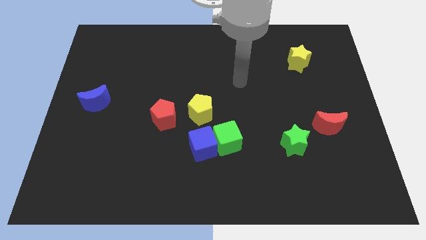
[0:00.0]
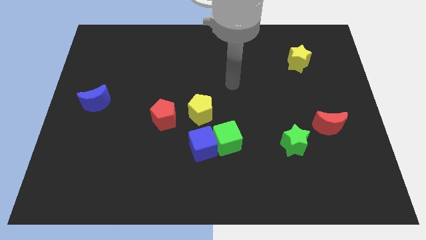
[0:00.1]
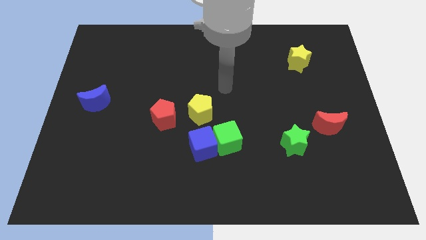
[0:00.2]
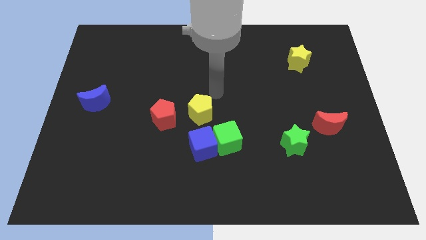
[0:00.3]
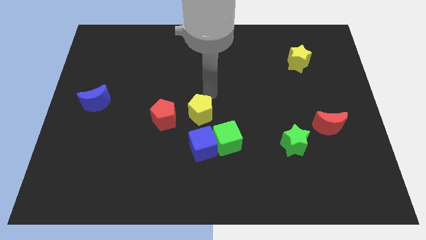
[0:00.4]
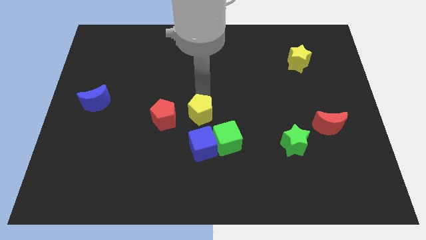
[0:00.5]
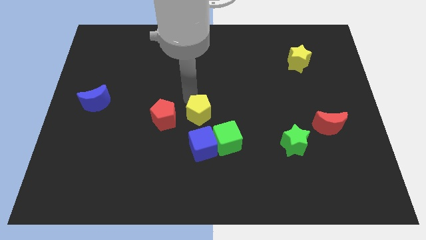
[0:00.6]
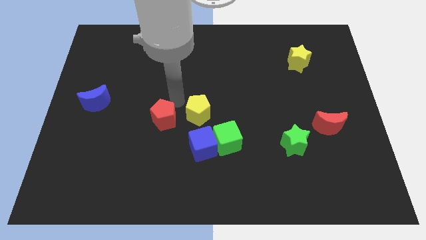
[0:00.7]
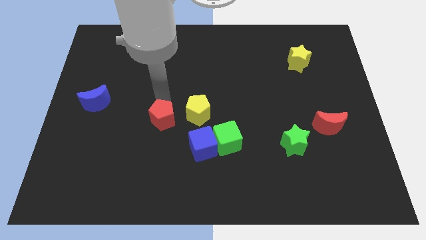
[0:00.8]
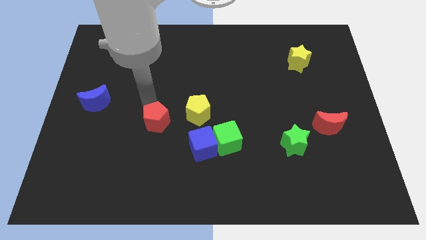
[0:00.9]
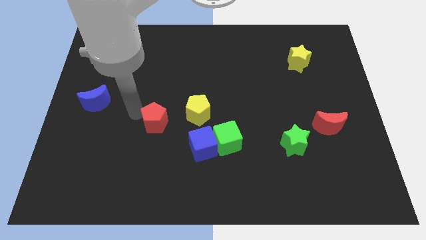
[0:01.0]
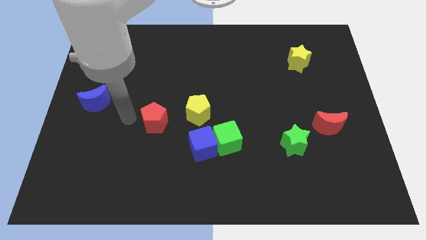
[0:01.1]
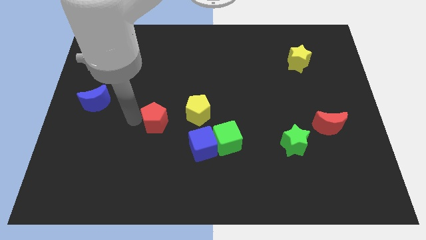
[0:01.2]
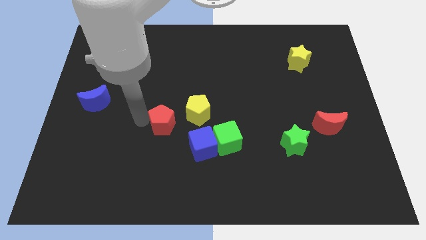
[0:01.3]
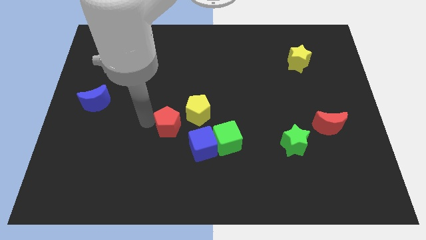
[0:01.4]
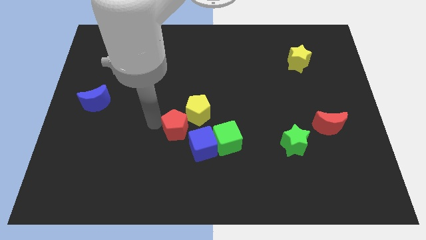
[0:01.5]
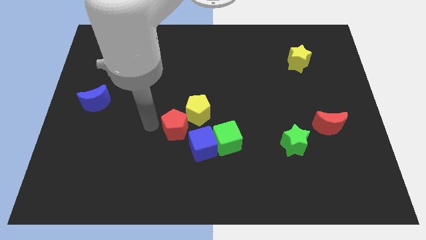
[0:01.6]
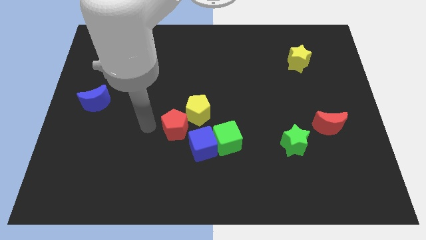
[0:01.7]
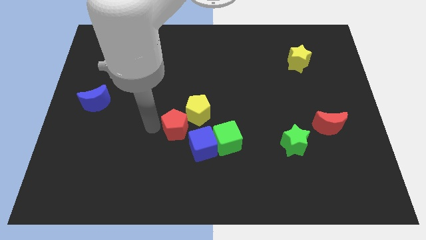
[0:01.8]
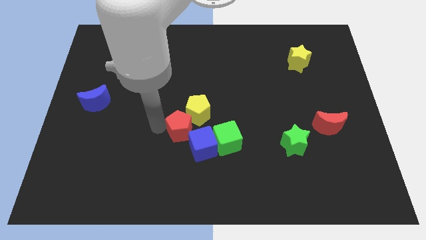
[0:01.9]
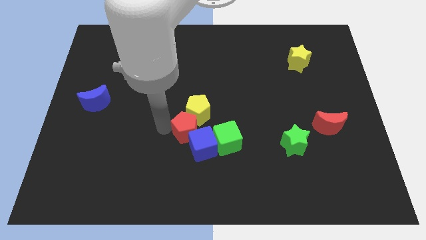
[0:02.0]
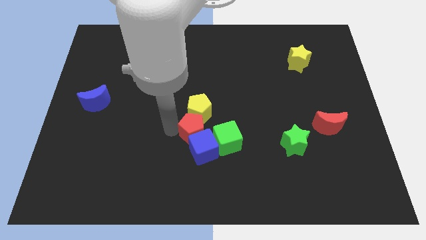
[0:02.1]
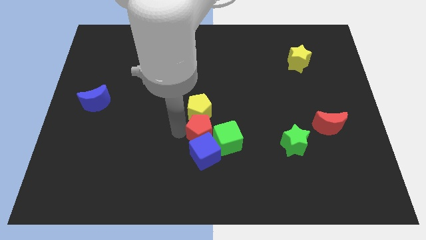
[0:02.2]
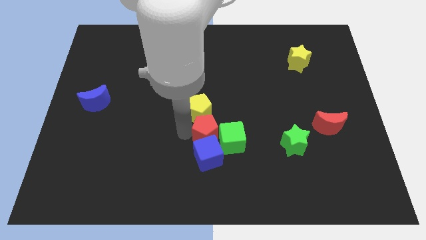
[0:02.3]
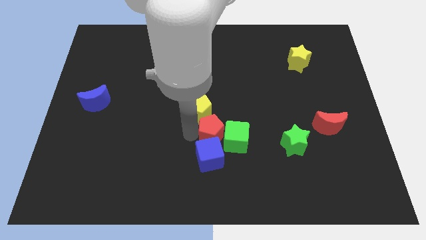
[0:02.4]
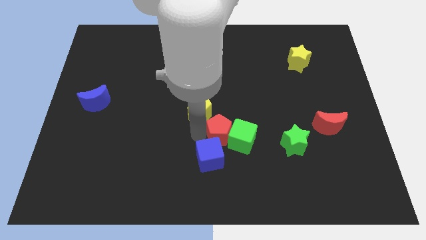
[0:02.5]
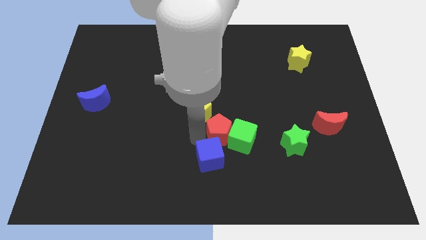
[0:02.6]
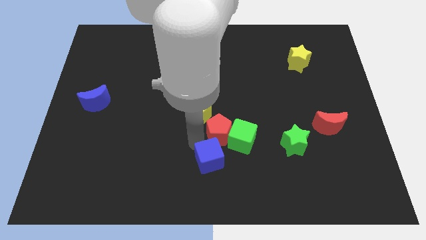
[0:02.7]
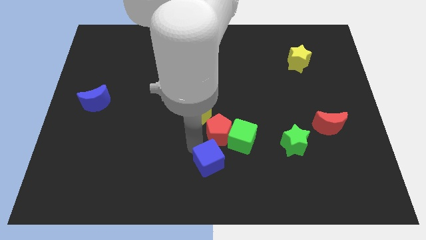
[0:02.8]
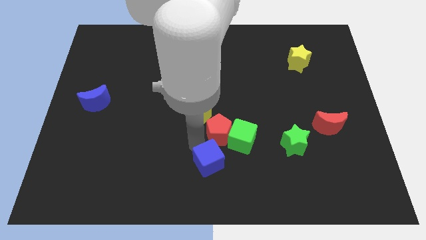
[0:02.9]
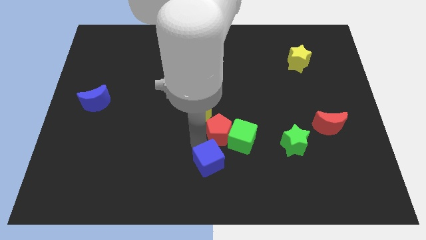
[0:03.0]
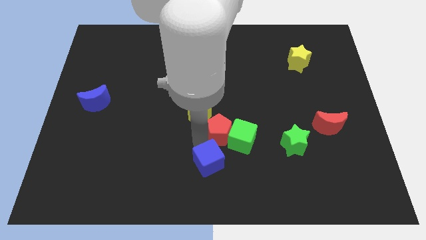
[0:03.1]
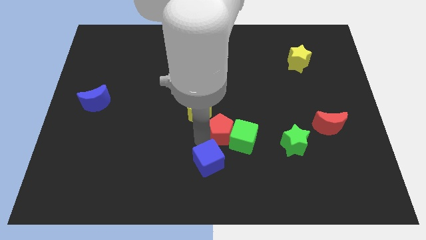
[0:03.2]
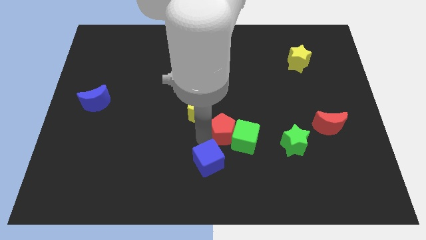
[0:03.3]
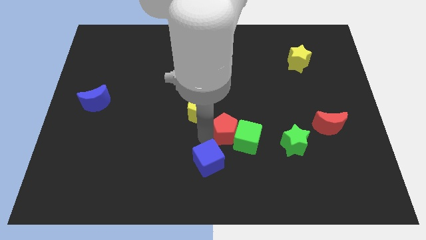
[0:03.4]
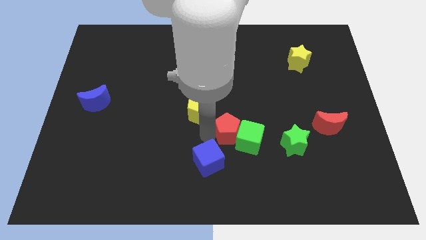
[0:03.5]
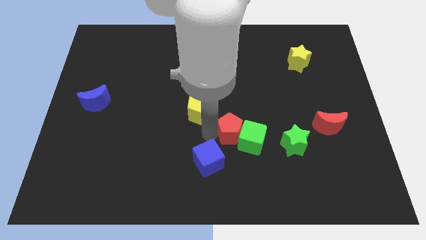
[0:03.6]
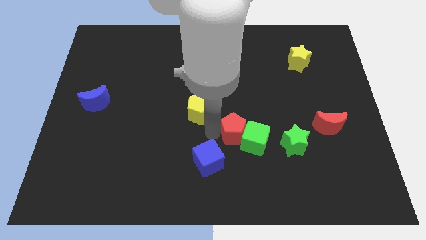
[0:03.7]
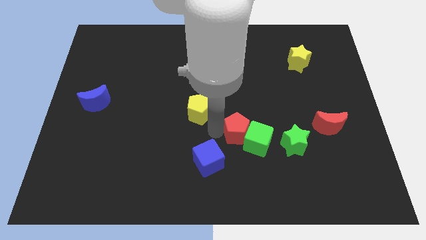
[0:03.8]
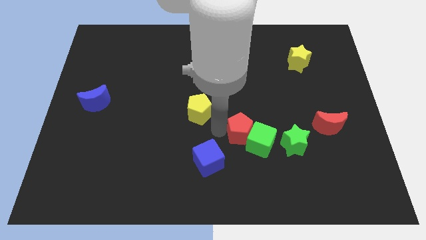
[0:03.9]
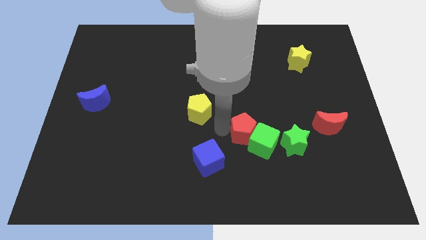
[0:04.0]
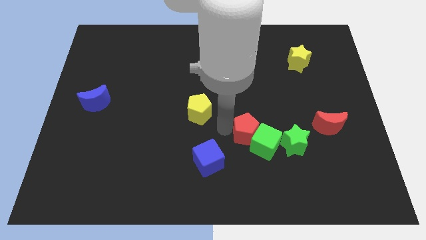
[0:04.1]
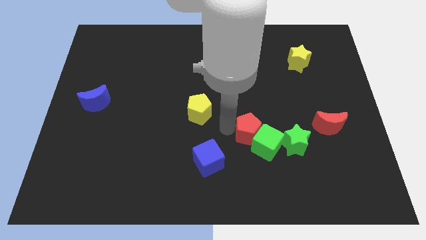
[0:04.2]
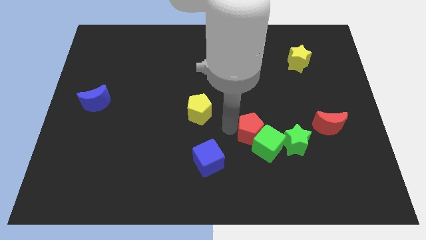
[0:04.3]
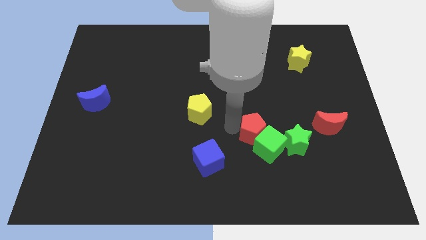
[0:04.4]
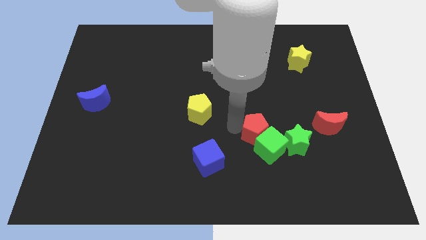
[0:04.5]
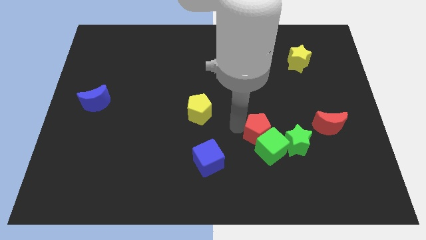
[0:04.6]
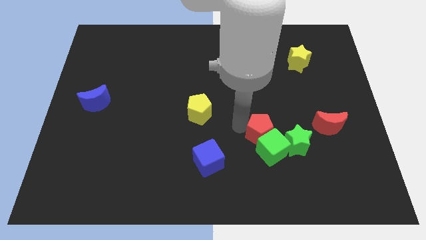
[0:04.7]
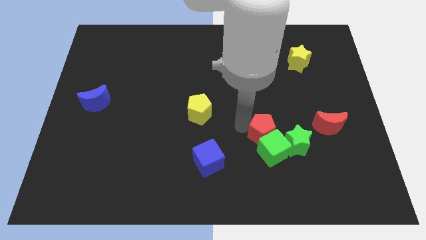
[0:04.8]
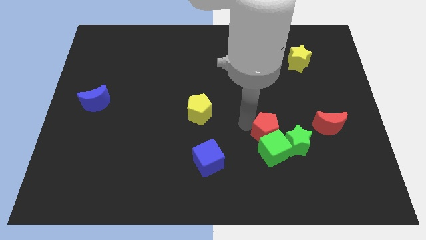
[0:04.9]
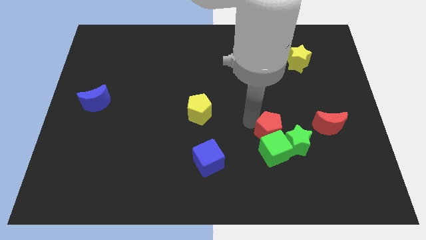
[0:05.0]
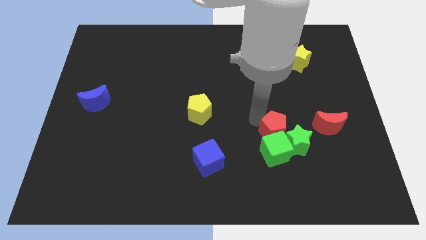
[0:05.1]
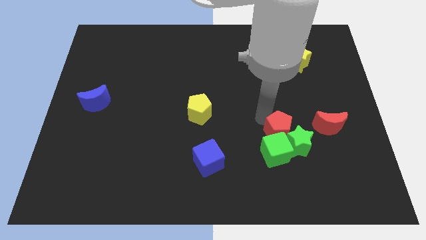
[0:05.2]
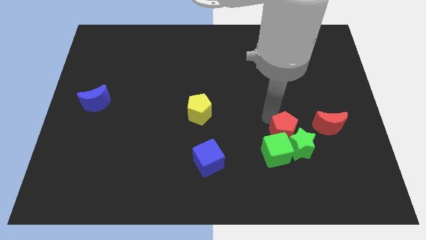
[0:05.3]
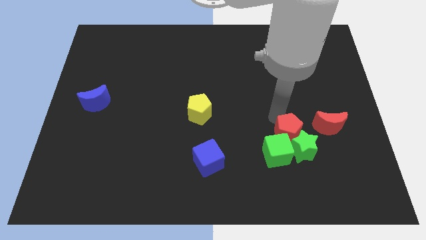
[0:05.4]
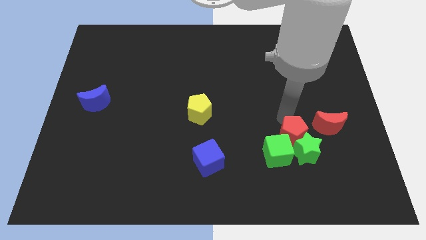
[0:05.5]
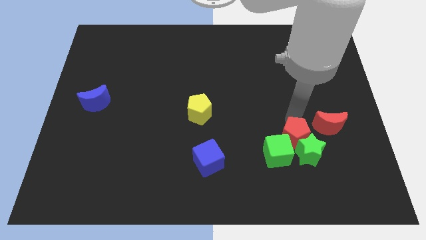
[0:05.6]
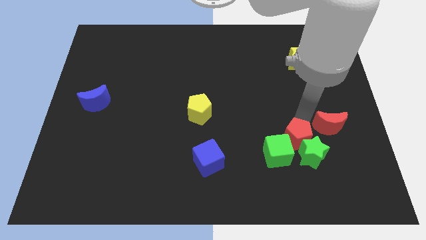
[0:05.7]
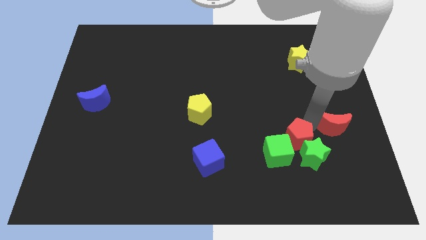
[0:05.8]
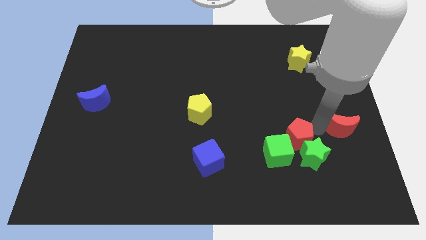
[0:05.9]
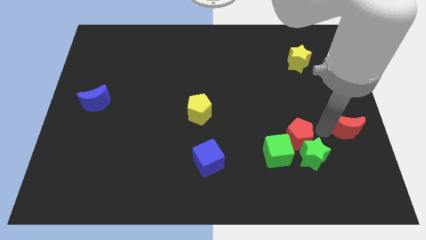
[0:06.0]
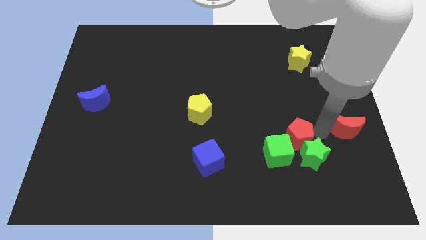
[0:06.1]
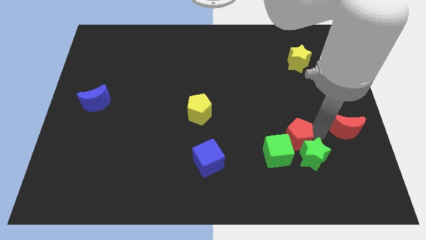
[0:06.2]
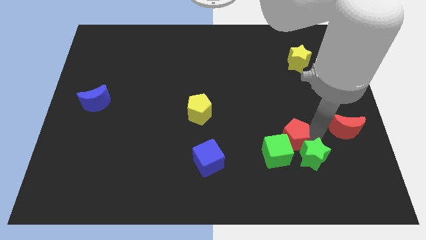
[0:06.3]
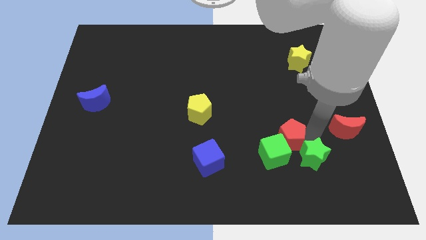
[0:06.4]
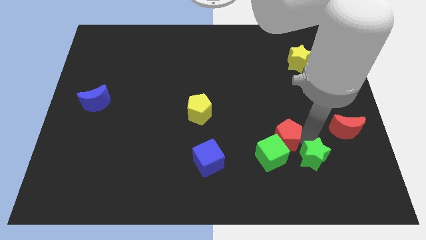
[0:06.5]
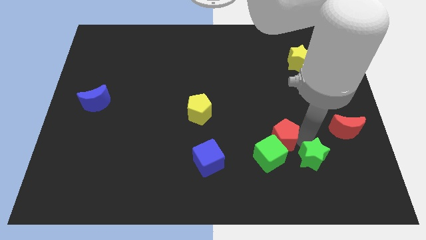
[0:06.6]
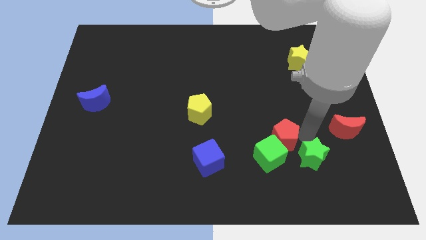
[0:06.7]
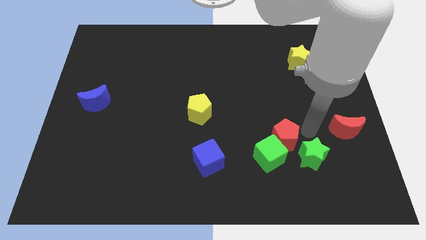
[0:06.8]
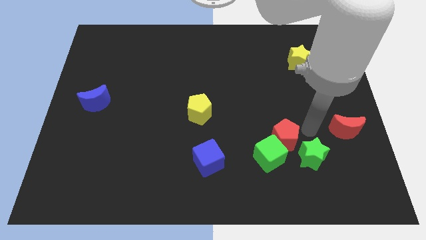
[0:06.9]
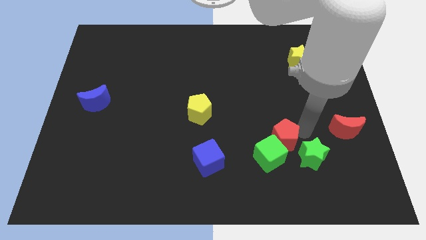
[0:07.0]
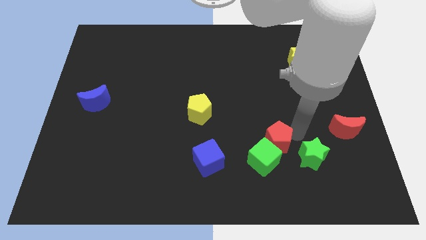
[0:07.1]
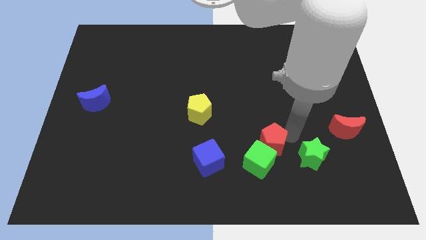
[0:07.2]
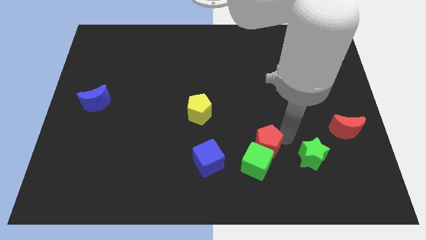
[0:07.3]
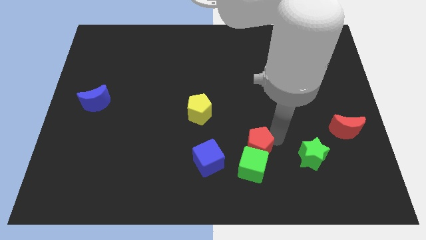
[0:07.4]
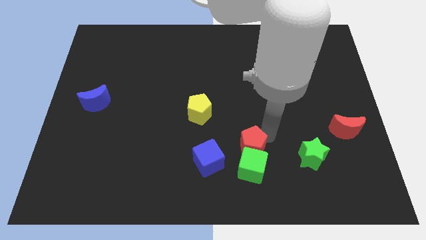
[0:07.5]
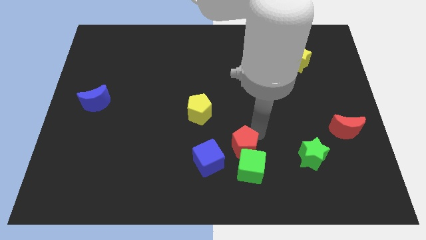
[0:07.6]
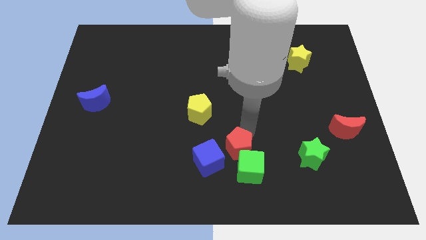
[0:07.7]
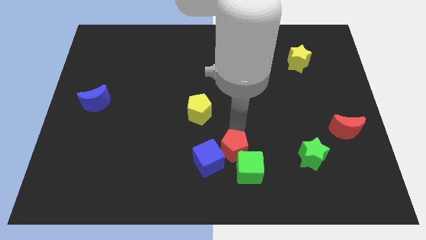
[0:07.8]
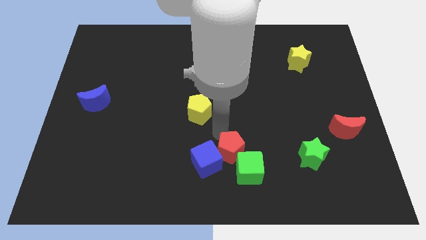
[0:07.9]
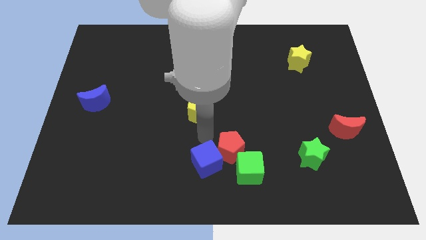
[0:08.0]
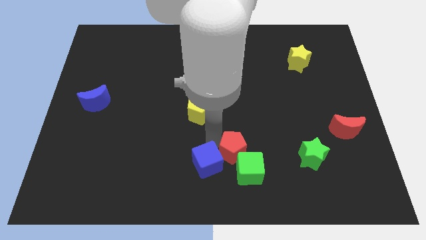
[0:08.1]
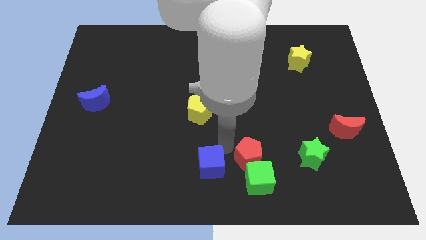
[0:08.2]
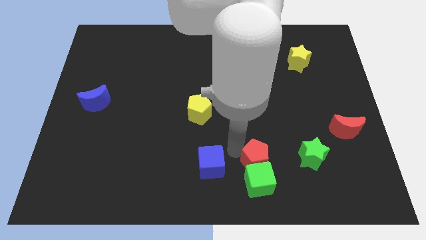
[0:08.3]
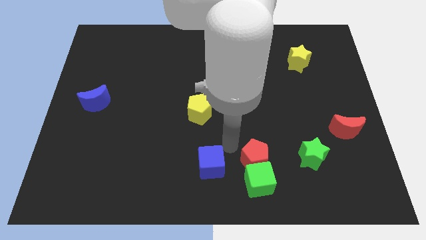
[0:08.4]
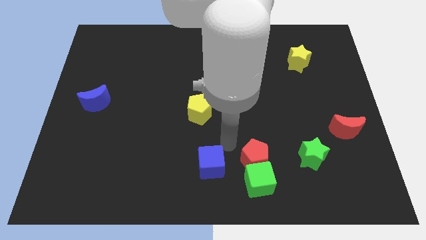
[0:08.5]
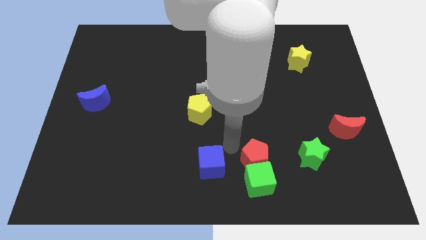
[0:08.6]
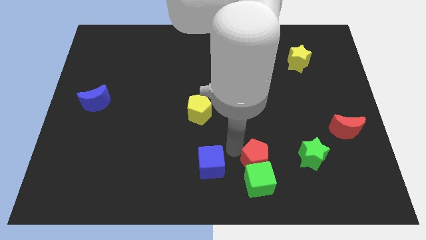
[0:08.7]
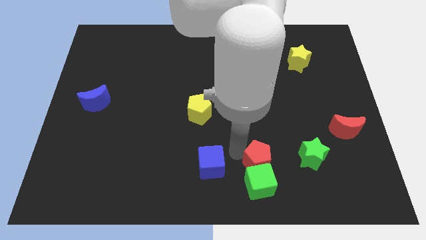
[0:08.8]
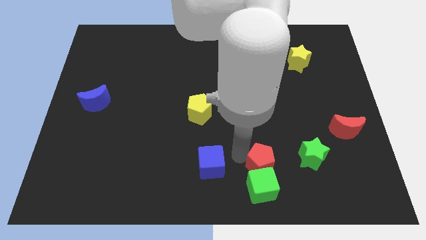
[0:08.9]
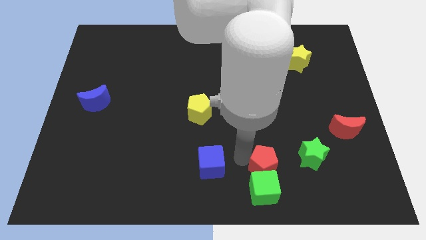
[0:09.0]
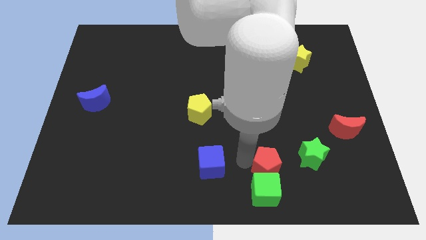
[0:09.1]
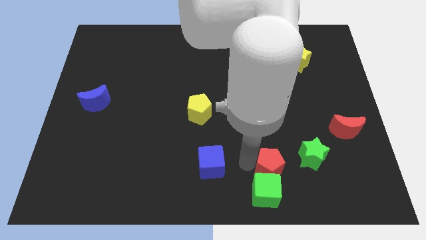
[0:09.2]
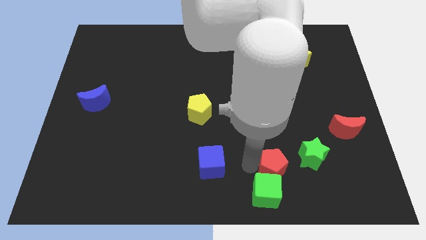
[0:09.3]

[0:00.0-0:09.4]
put the red pentagon to the bottom left of the green star
